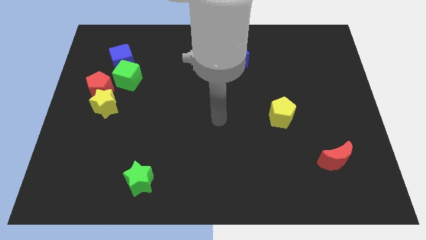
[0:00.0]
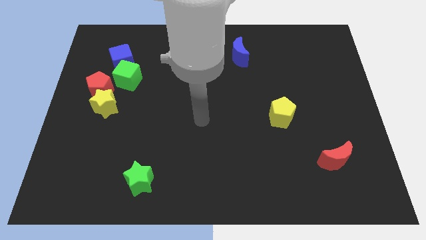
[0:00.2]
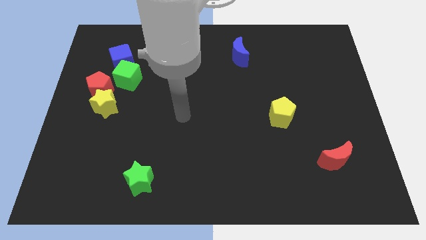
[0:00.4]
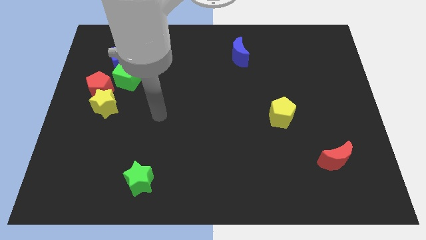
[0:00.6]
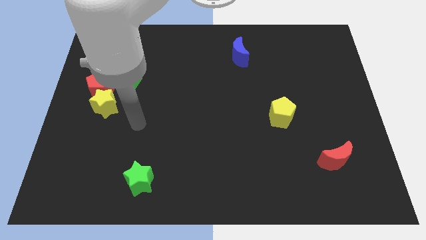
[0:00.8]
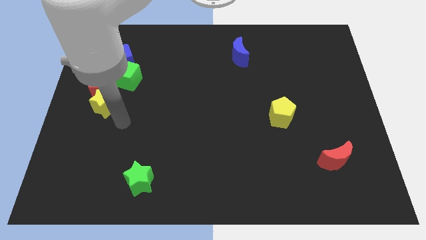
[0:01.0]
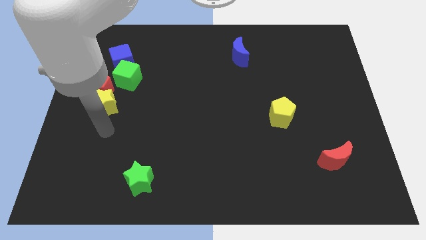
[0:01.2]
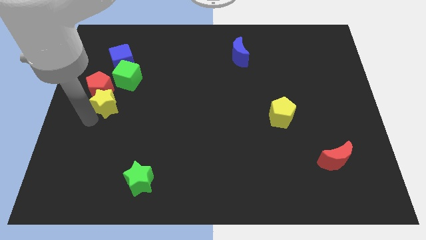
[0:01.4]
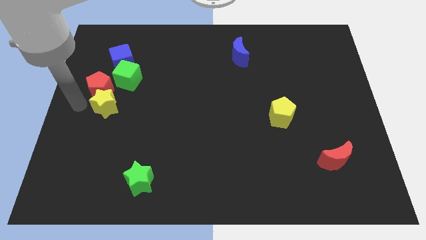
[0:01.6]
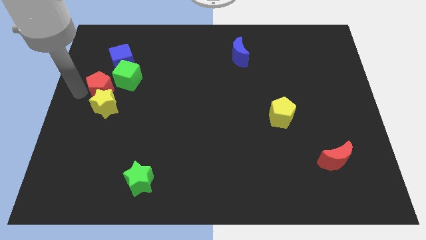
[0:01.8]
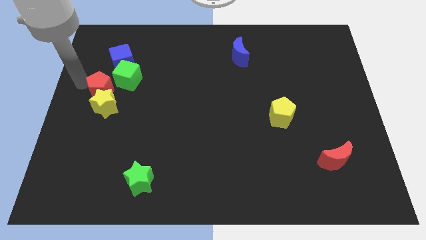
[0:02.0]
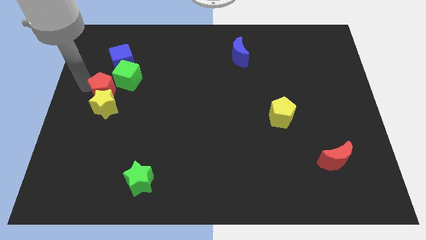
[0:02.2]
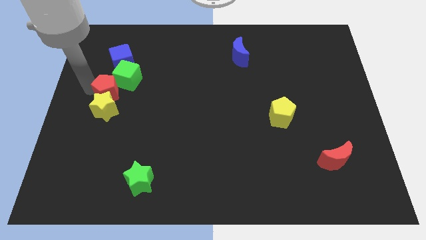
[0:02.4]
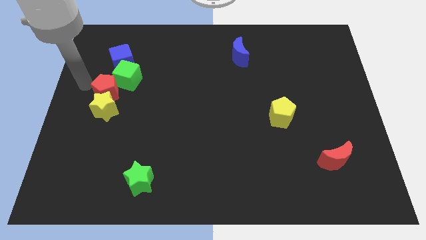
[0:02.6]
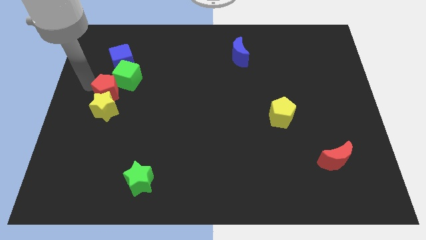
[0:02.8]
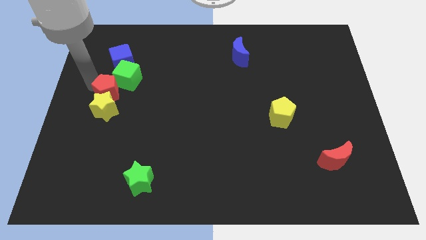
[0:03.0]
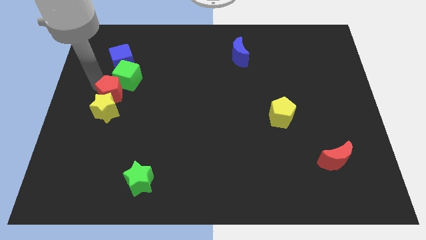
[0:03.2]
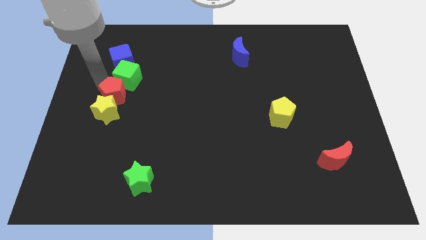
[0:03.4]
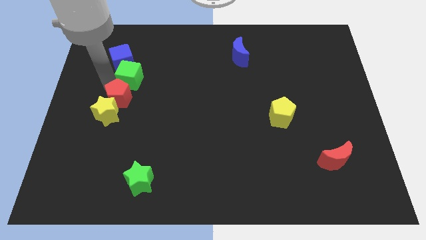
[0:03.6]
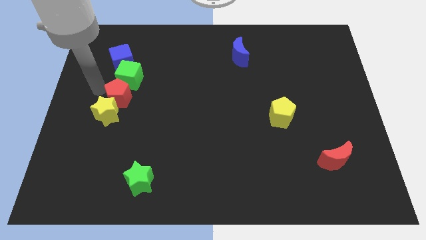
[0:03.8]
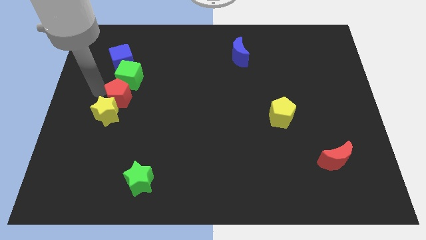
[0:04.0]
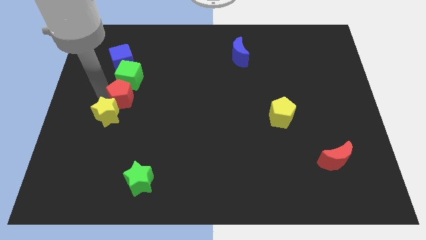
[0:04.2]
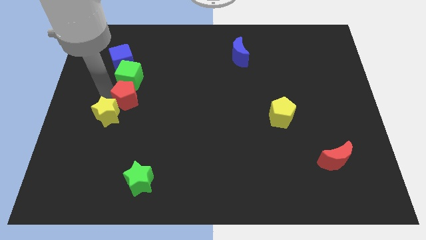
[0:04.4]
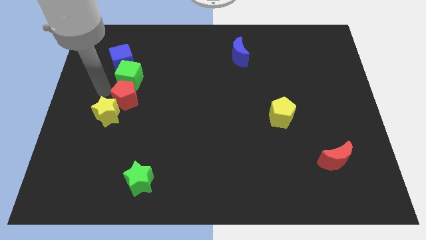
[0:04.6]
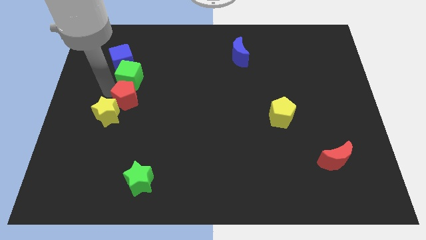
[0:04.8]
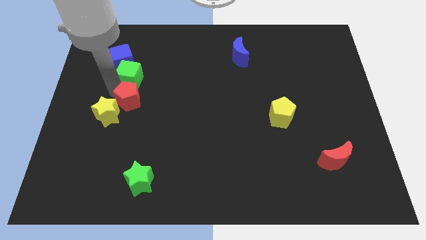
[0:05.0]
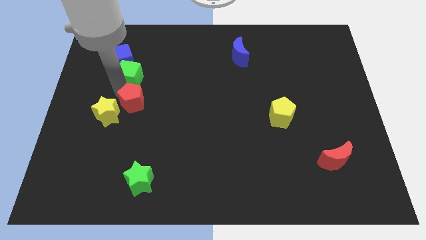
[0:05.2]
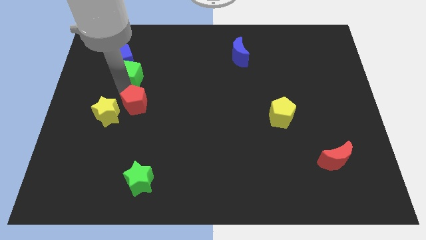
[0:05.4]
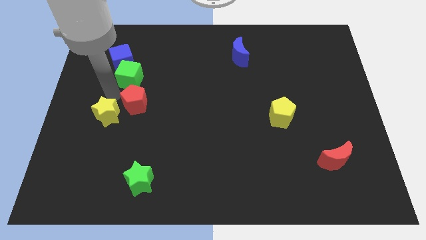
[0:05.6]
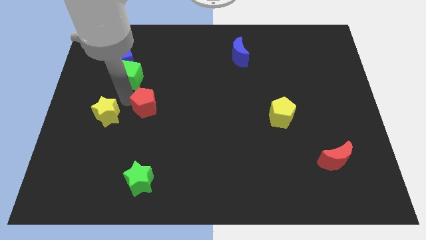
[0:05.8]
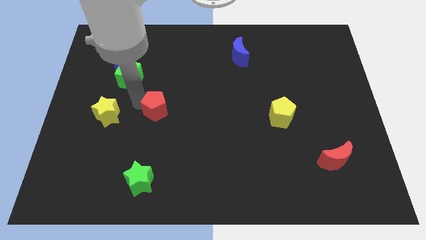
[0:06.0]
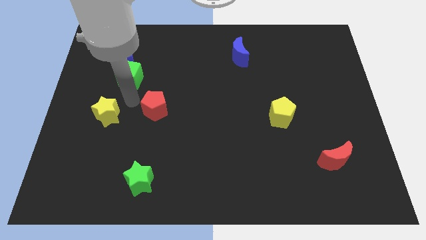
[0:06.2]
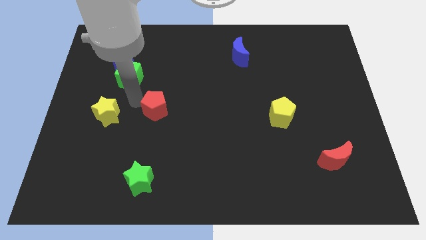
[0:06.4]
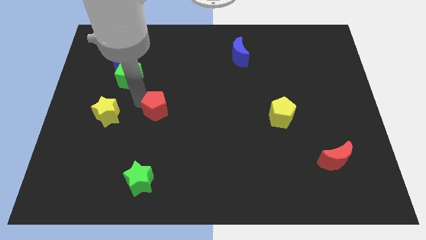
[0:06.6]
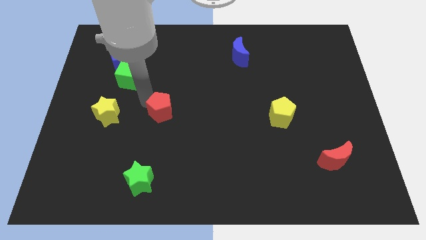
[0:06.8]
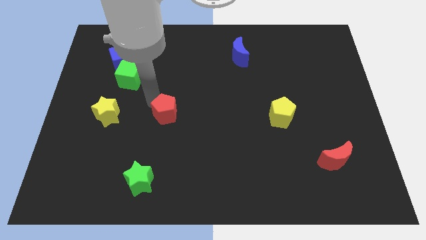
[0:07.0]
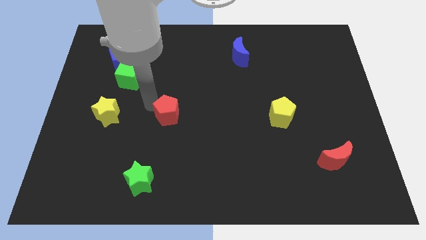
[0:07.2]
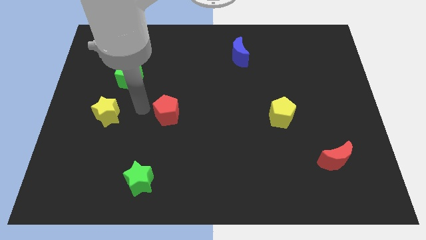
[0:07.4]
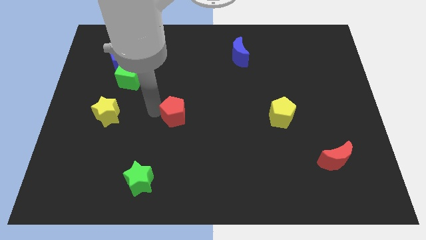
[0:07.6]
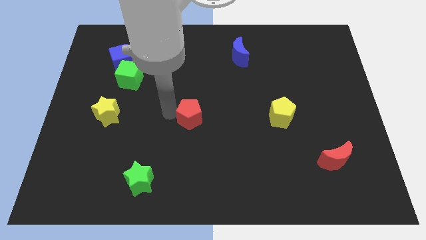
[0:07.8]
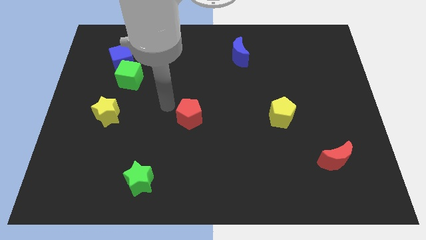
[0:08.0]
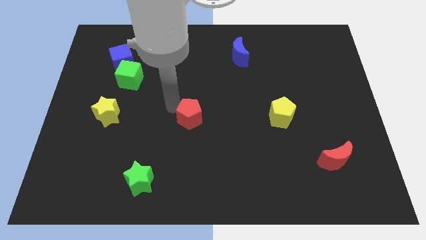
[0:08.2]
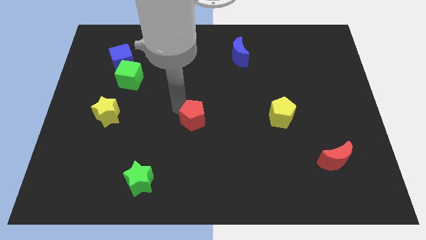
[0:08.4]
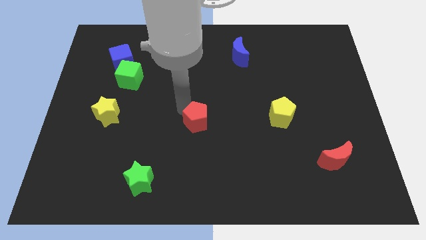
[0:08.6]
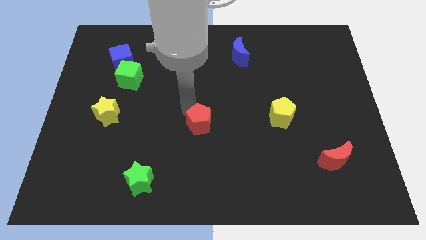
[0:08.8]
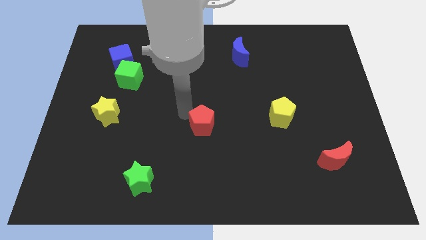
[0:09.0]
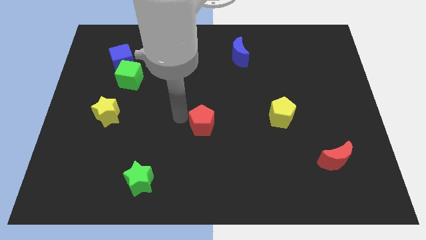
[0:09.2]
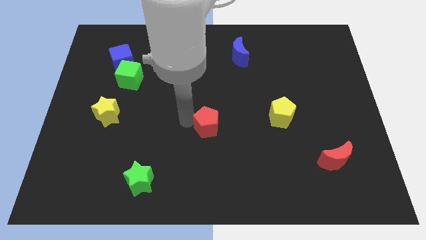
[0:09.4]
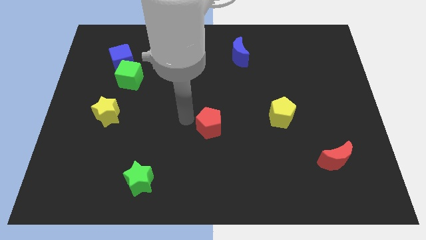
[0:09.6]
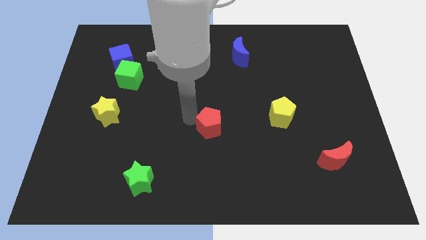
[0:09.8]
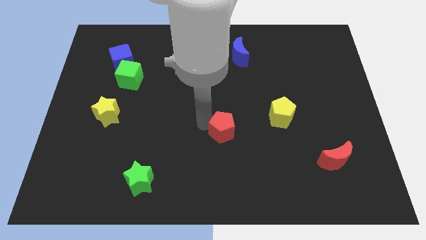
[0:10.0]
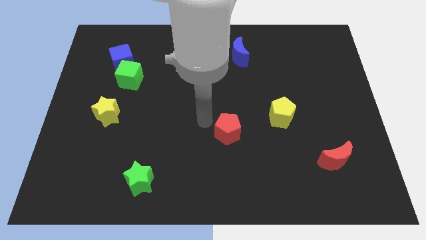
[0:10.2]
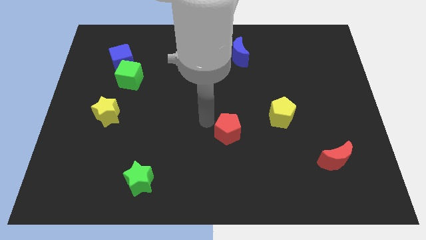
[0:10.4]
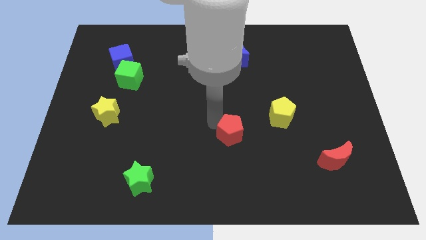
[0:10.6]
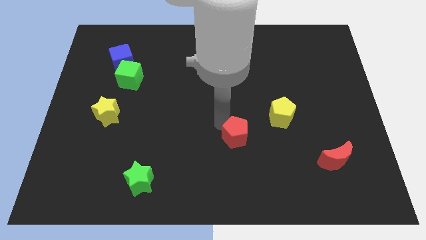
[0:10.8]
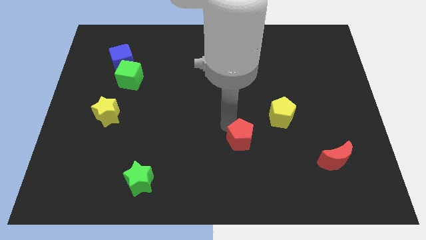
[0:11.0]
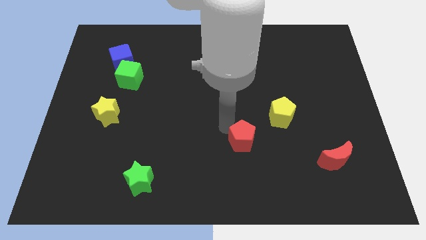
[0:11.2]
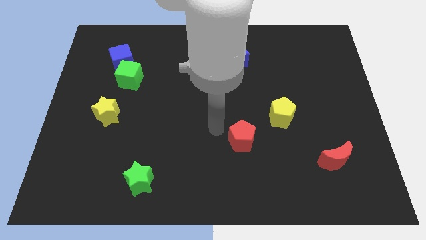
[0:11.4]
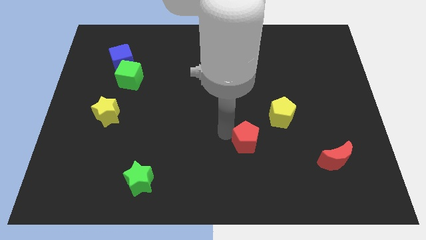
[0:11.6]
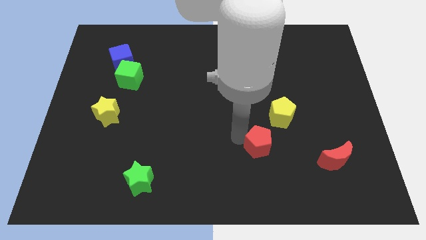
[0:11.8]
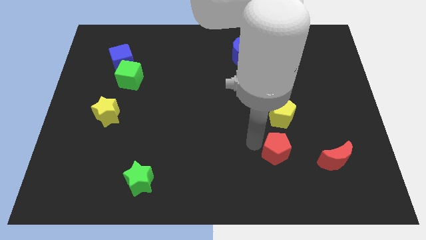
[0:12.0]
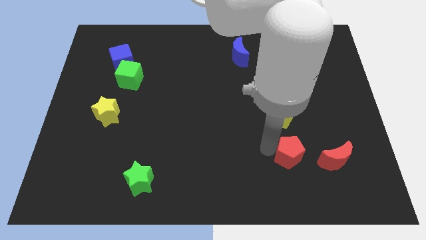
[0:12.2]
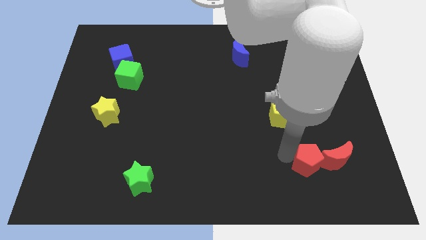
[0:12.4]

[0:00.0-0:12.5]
slide the red pentagon to the red moon

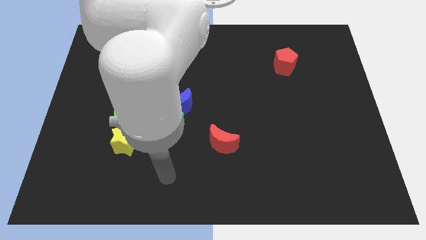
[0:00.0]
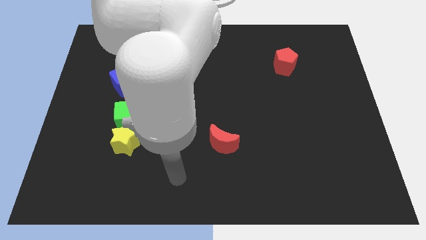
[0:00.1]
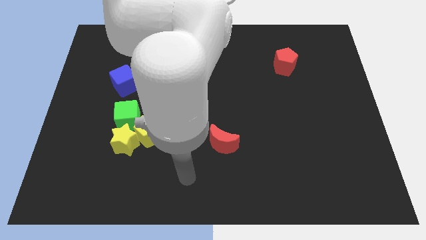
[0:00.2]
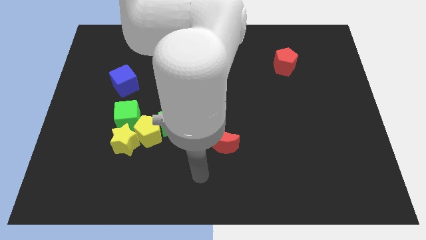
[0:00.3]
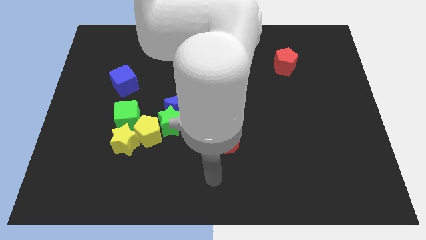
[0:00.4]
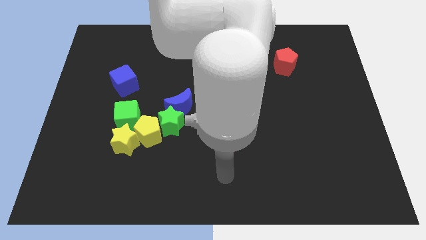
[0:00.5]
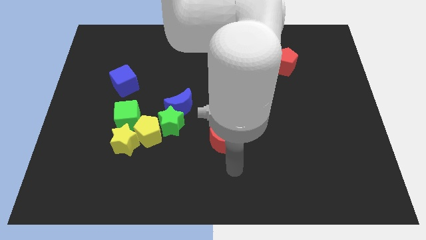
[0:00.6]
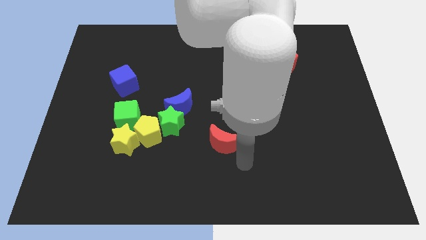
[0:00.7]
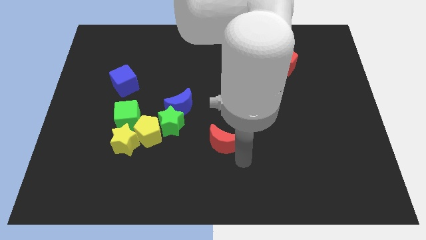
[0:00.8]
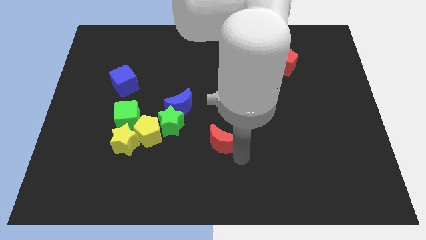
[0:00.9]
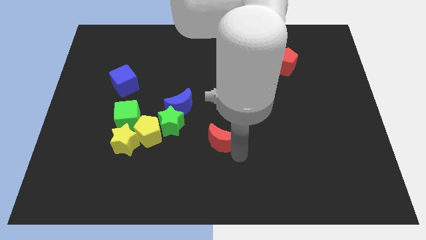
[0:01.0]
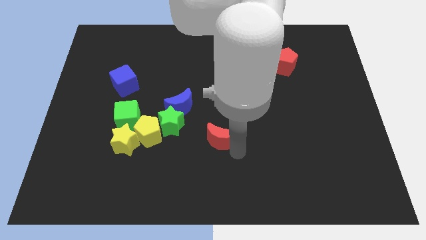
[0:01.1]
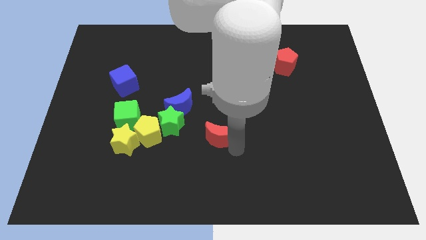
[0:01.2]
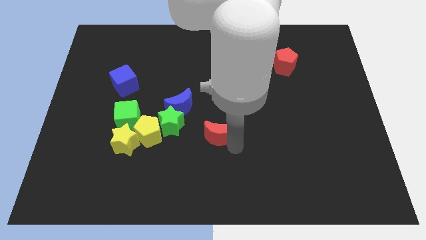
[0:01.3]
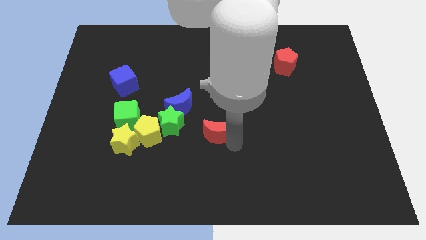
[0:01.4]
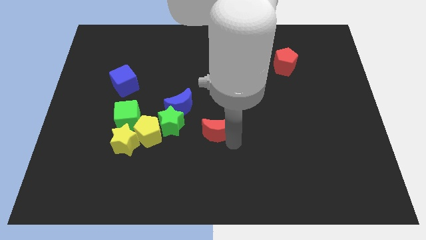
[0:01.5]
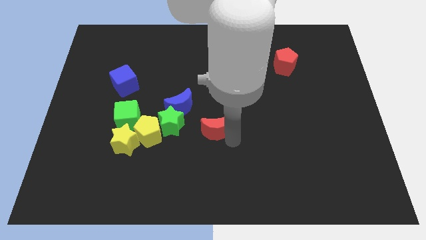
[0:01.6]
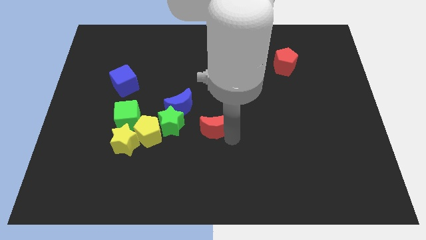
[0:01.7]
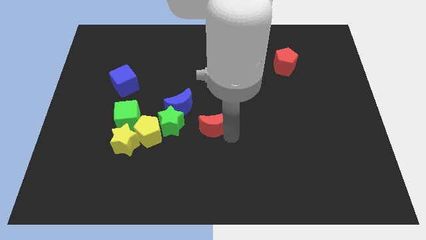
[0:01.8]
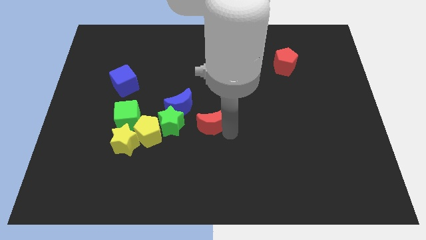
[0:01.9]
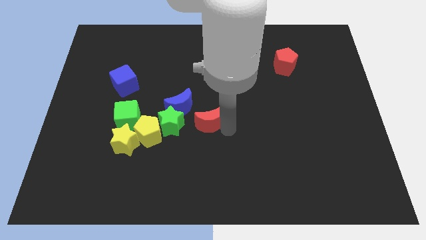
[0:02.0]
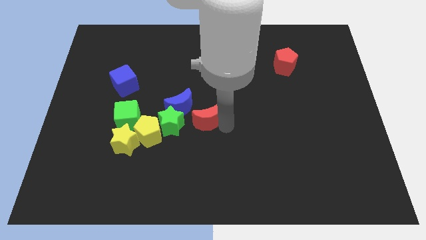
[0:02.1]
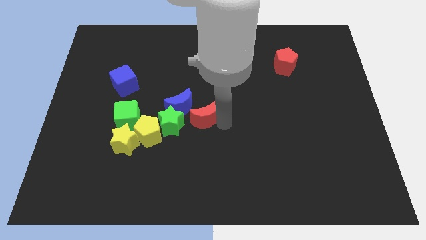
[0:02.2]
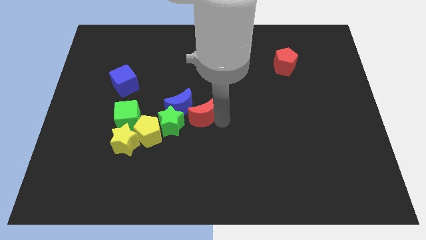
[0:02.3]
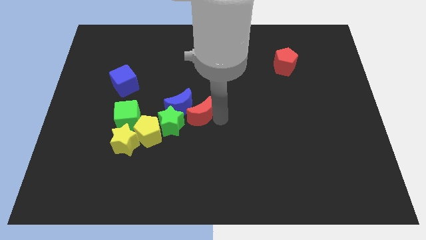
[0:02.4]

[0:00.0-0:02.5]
push the red moon towards the blue moon
